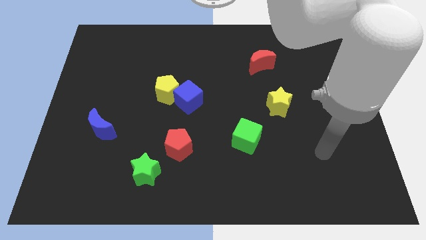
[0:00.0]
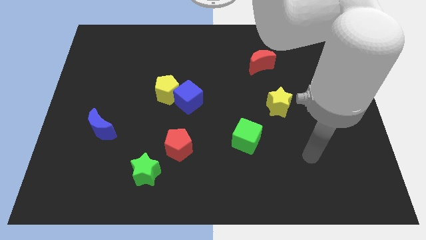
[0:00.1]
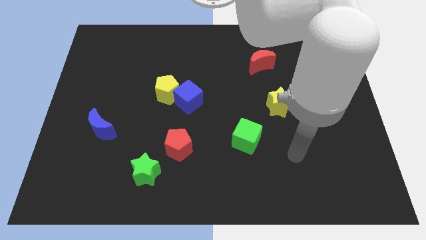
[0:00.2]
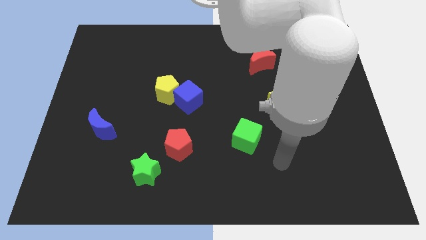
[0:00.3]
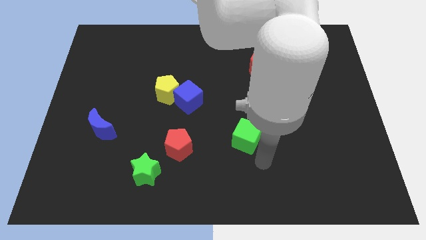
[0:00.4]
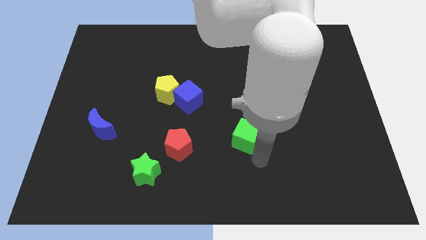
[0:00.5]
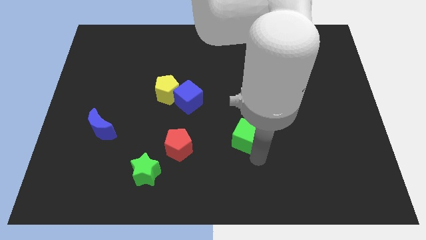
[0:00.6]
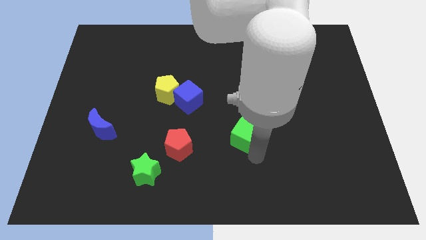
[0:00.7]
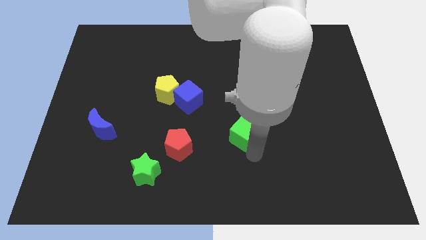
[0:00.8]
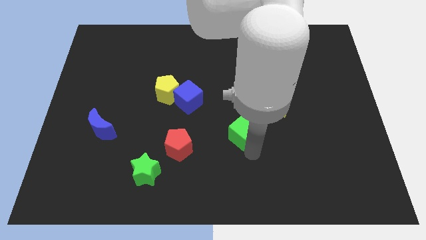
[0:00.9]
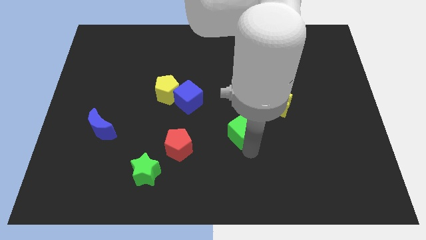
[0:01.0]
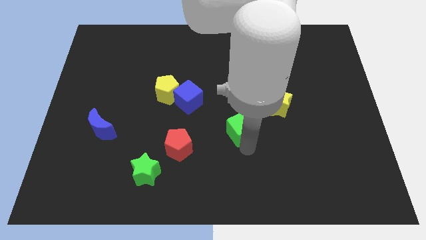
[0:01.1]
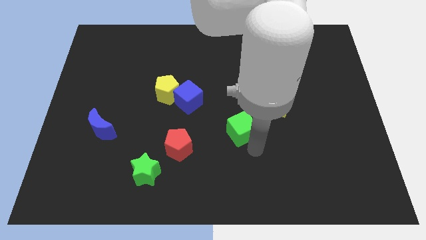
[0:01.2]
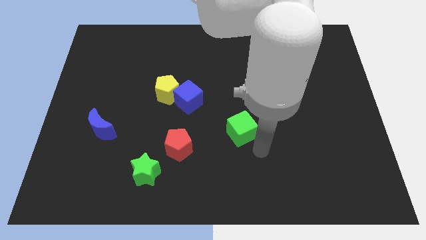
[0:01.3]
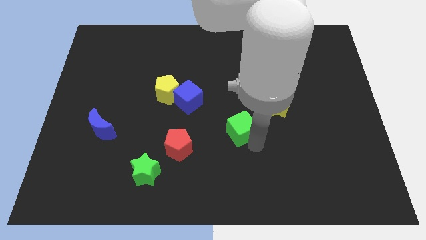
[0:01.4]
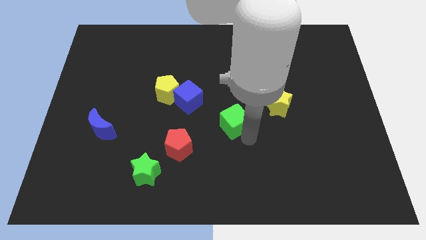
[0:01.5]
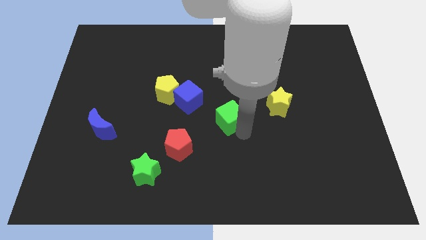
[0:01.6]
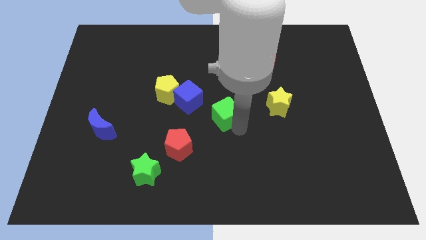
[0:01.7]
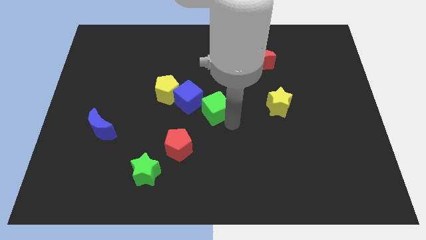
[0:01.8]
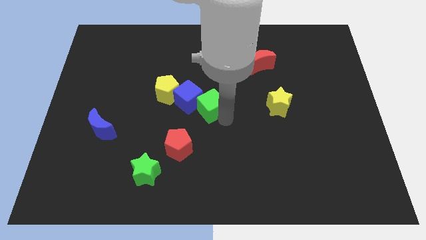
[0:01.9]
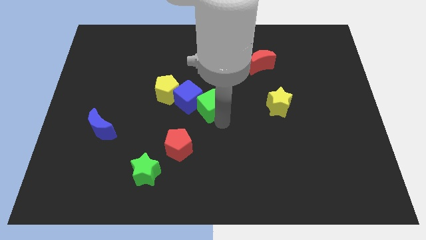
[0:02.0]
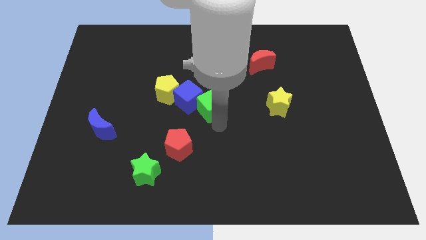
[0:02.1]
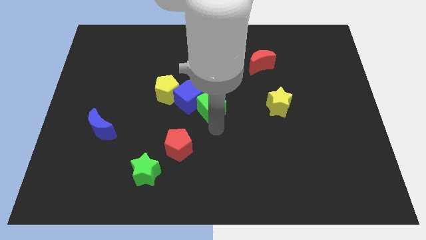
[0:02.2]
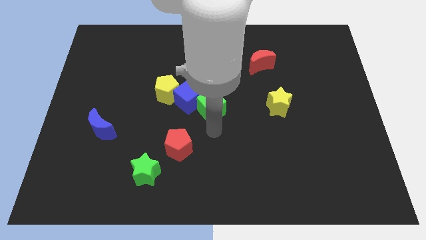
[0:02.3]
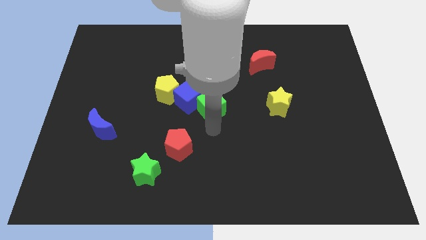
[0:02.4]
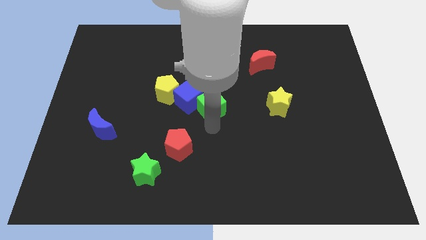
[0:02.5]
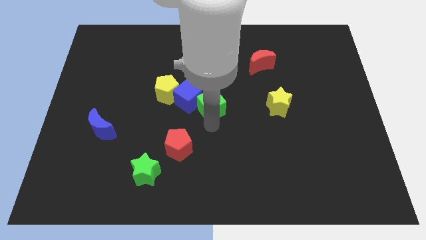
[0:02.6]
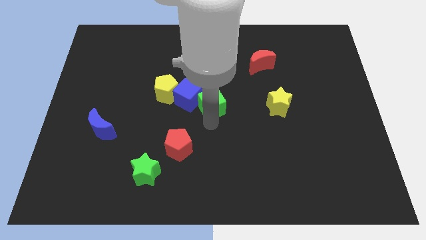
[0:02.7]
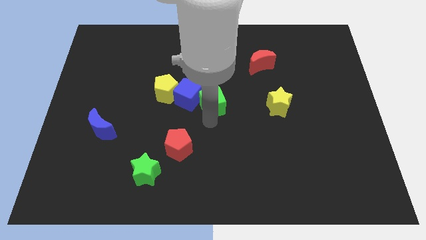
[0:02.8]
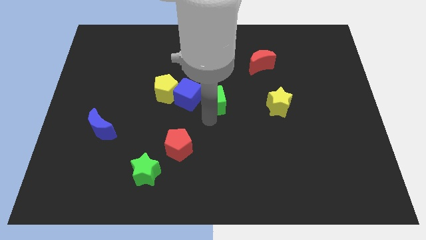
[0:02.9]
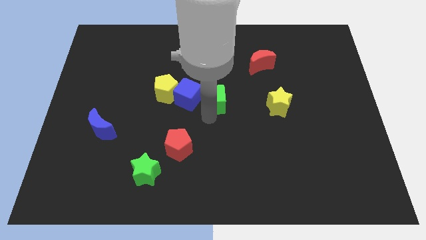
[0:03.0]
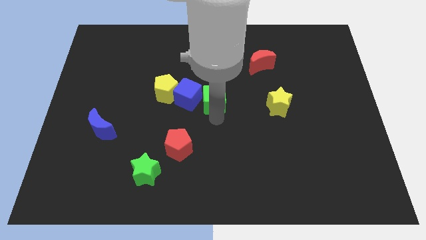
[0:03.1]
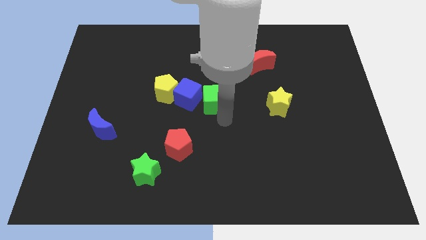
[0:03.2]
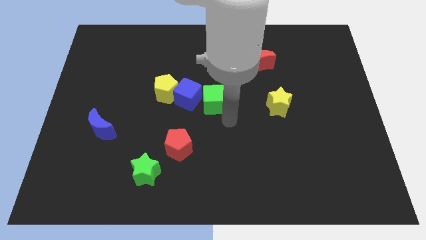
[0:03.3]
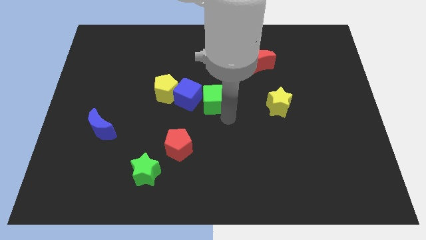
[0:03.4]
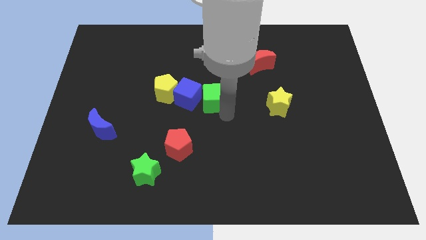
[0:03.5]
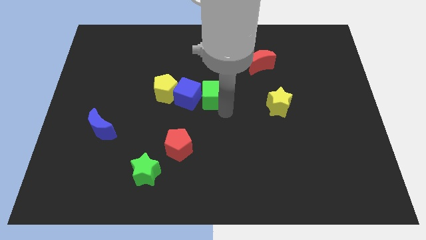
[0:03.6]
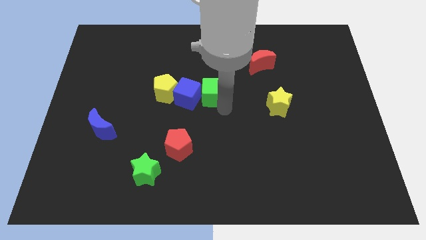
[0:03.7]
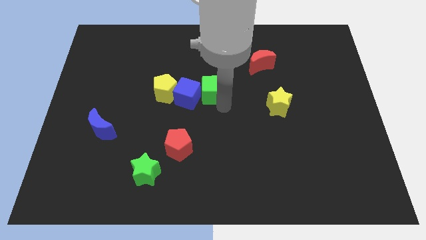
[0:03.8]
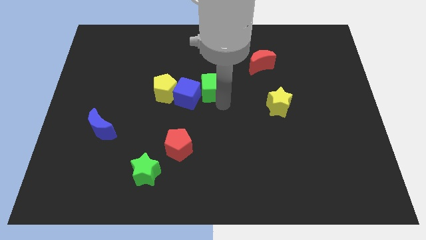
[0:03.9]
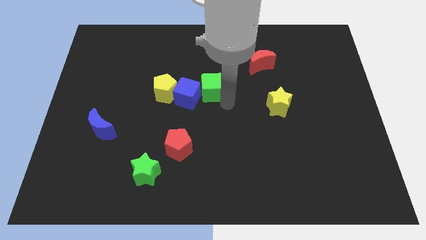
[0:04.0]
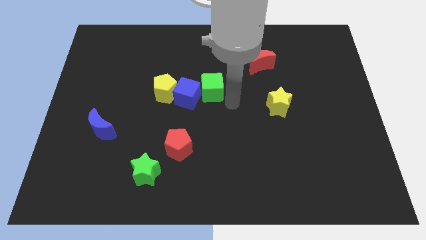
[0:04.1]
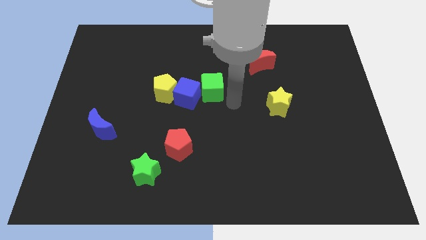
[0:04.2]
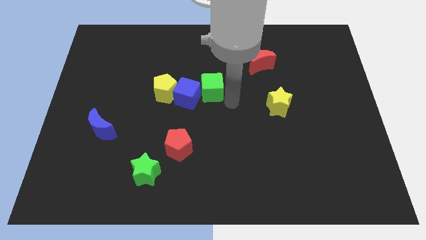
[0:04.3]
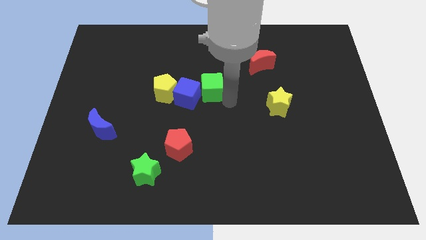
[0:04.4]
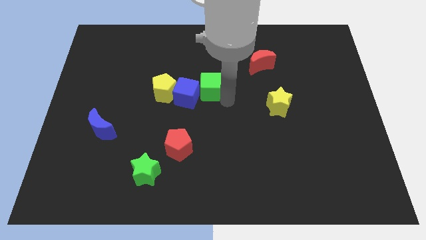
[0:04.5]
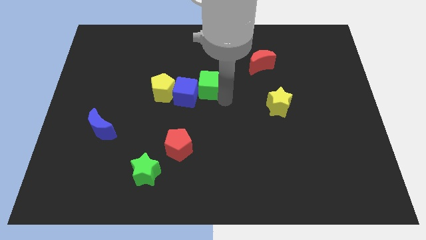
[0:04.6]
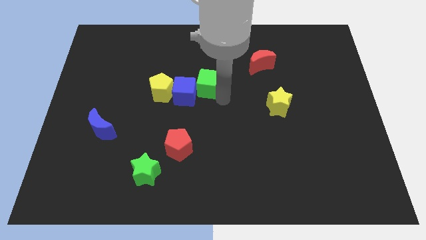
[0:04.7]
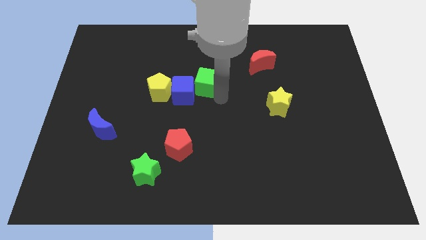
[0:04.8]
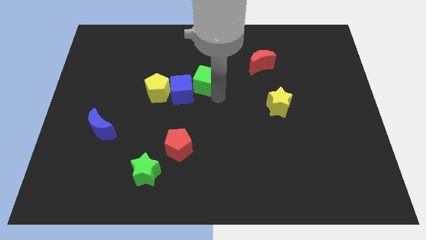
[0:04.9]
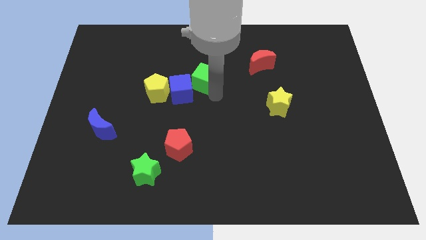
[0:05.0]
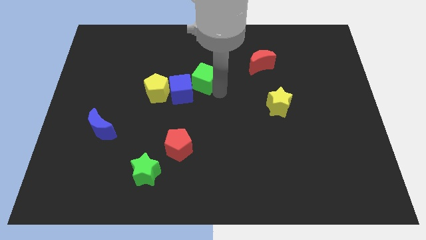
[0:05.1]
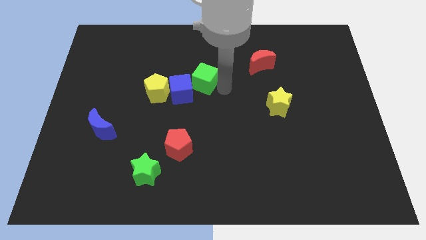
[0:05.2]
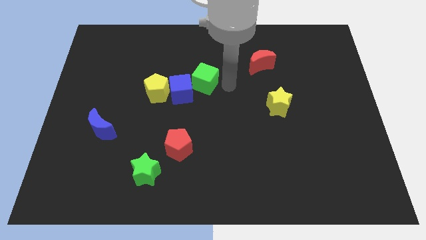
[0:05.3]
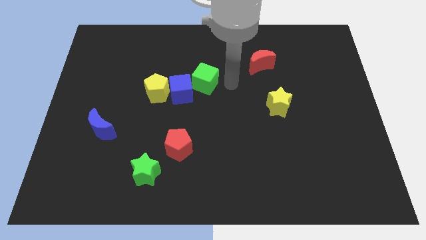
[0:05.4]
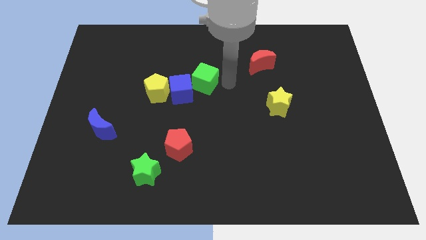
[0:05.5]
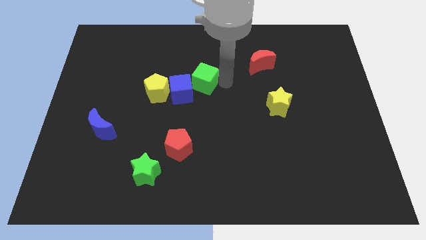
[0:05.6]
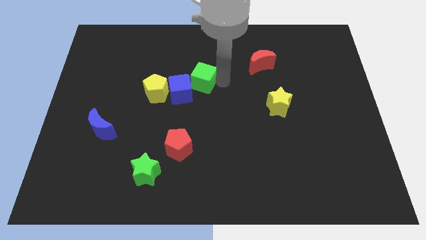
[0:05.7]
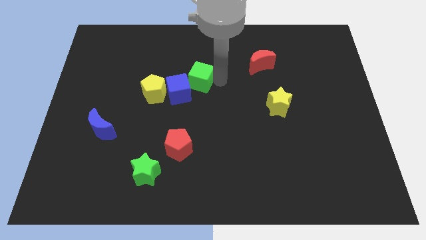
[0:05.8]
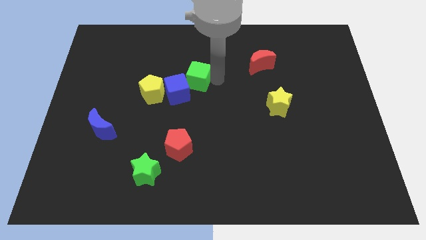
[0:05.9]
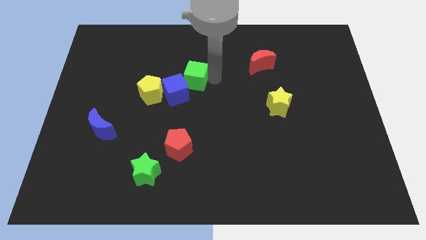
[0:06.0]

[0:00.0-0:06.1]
push the green cube diagonally upwards and left

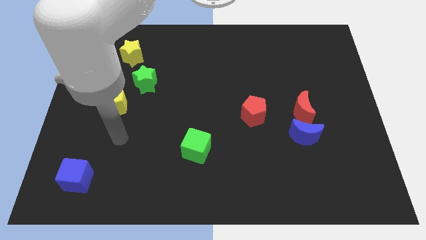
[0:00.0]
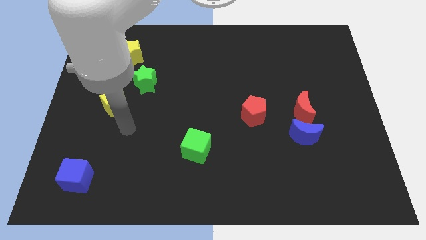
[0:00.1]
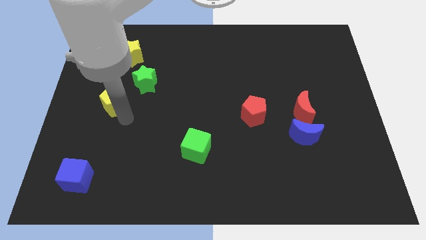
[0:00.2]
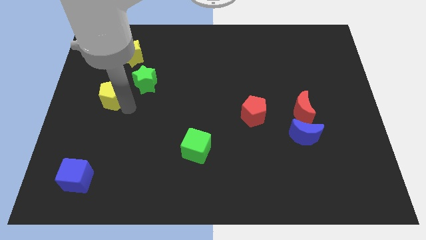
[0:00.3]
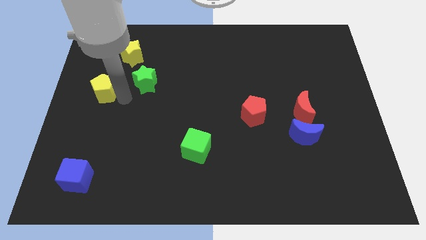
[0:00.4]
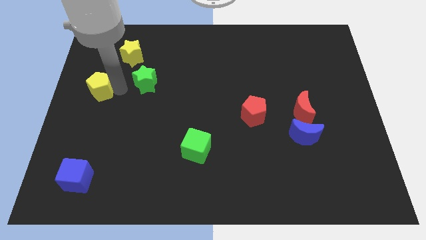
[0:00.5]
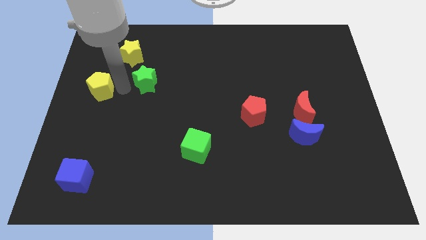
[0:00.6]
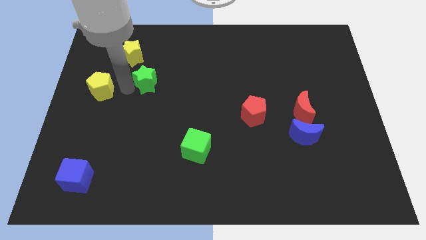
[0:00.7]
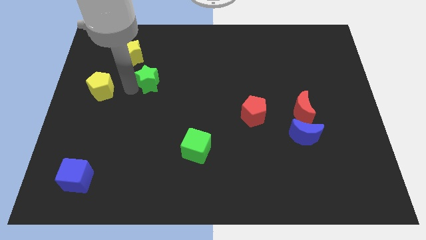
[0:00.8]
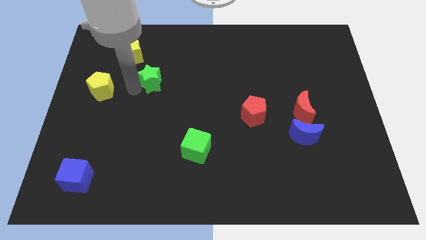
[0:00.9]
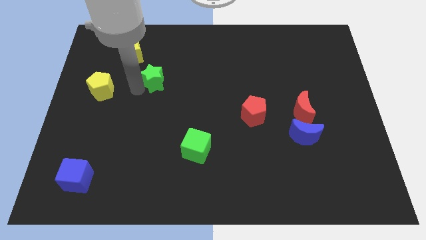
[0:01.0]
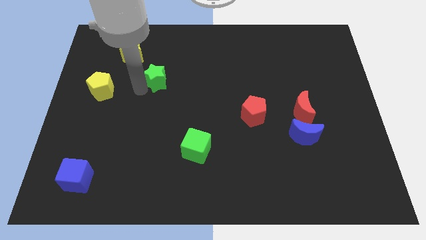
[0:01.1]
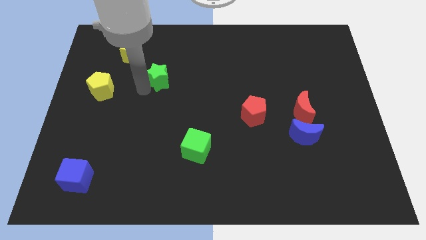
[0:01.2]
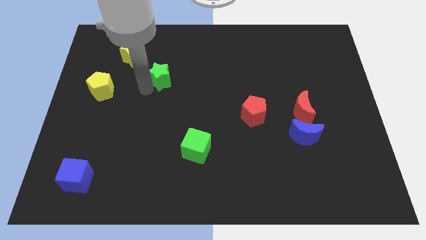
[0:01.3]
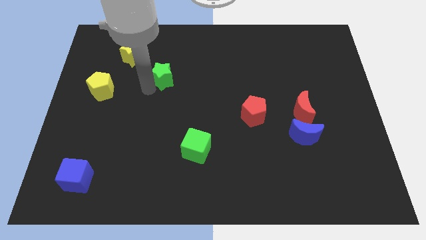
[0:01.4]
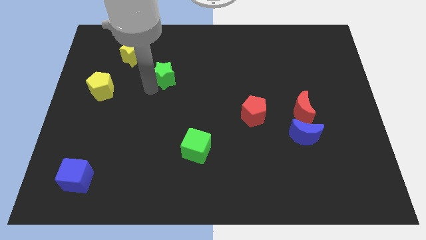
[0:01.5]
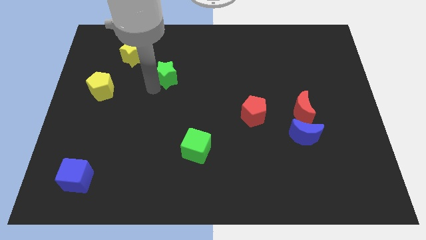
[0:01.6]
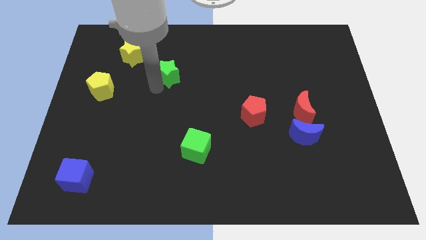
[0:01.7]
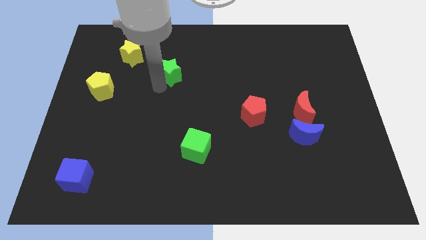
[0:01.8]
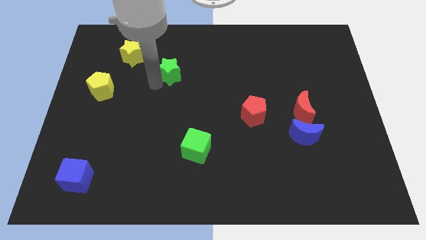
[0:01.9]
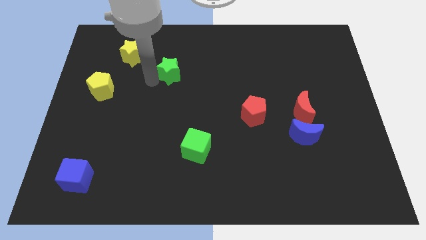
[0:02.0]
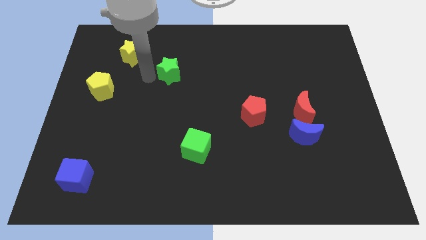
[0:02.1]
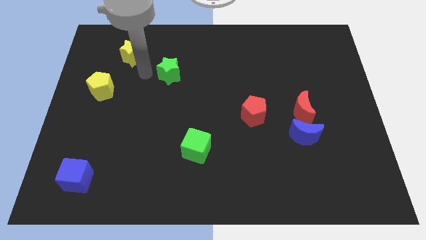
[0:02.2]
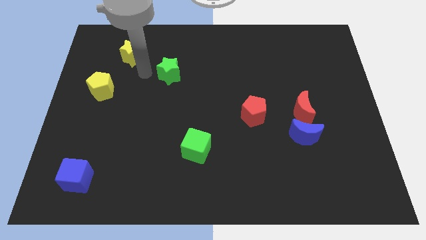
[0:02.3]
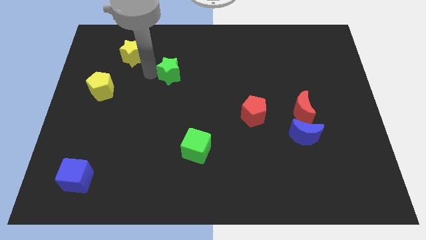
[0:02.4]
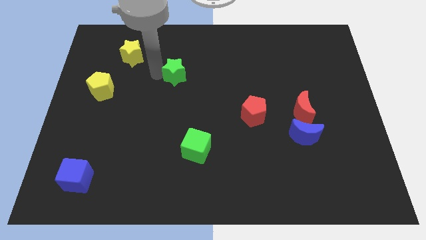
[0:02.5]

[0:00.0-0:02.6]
slide the green star right somewhat
